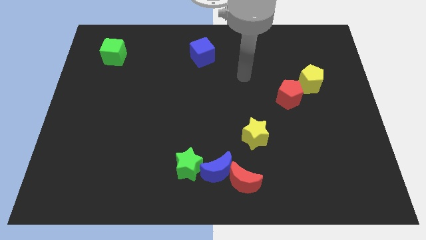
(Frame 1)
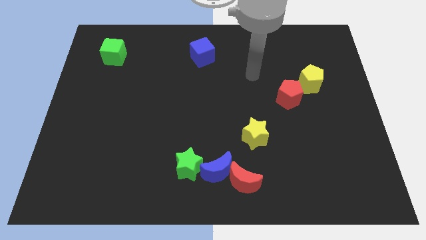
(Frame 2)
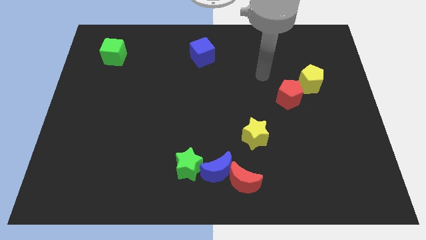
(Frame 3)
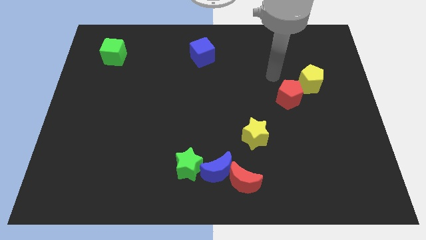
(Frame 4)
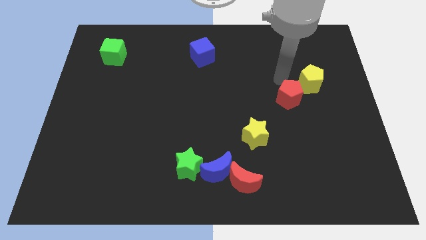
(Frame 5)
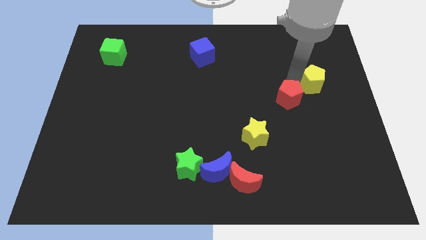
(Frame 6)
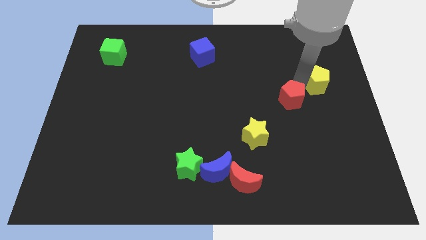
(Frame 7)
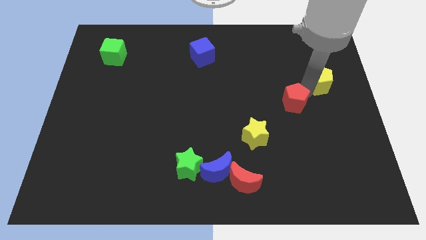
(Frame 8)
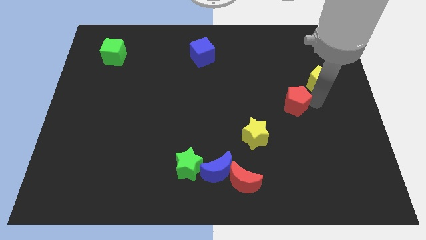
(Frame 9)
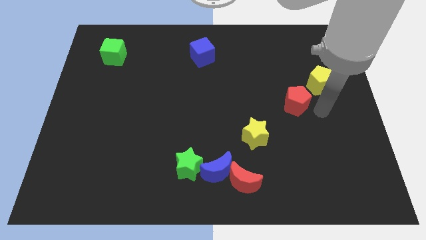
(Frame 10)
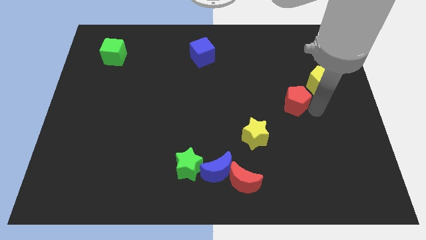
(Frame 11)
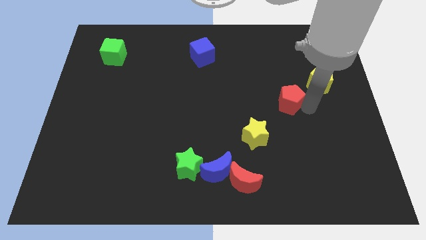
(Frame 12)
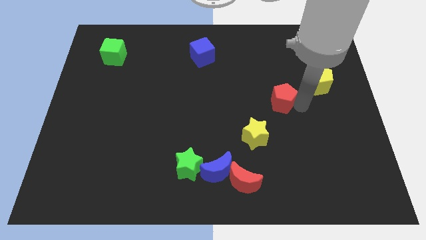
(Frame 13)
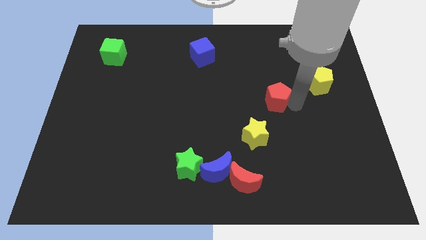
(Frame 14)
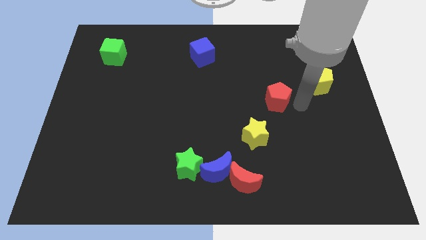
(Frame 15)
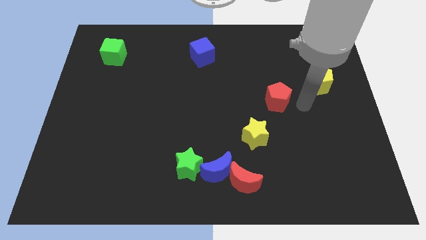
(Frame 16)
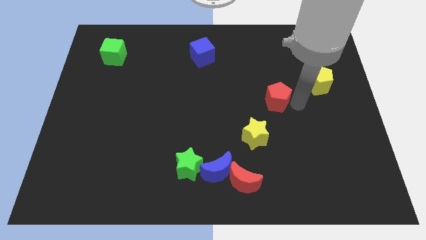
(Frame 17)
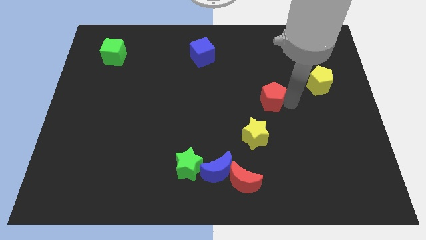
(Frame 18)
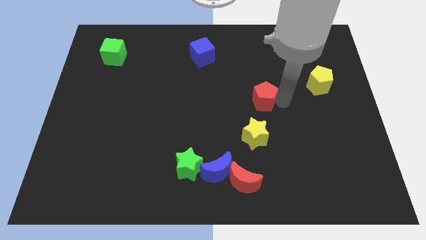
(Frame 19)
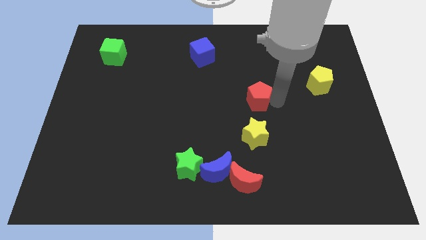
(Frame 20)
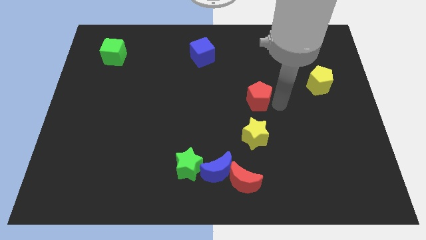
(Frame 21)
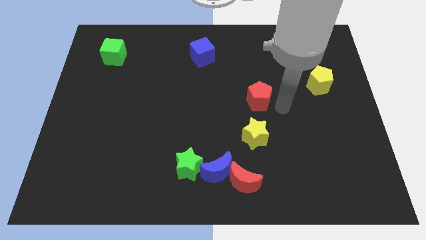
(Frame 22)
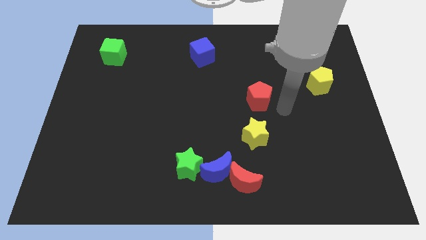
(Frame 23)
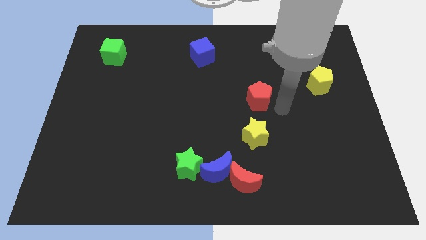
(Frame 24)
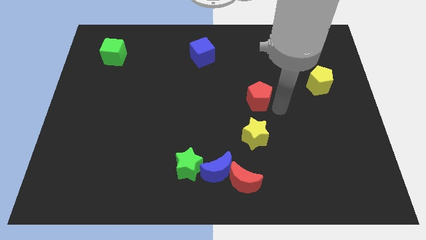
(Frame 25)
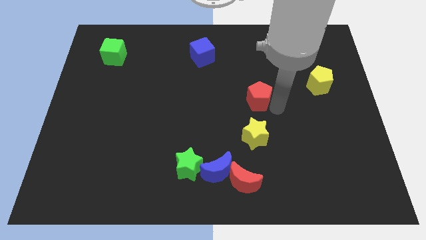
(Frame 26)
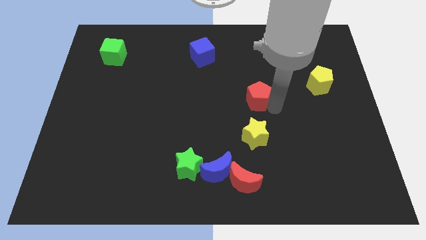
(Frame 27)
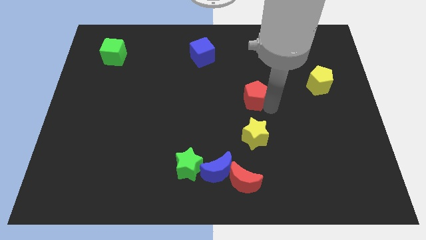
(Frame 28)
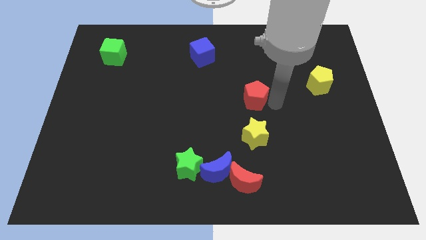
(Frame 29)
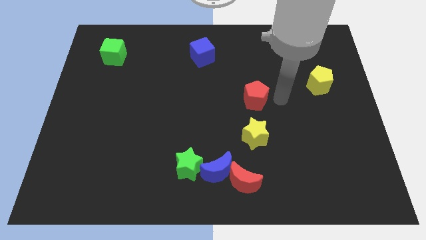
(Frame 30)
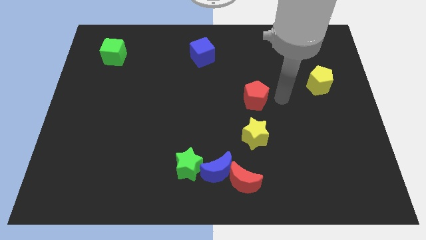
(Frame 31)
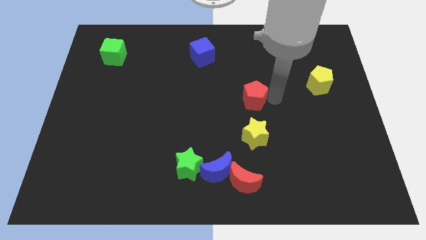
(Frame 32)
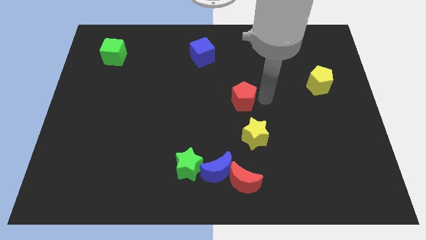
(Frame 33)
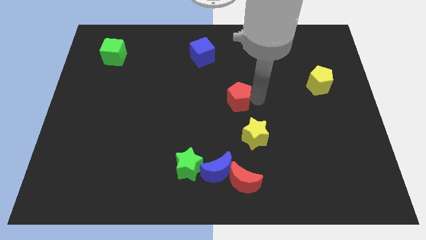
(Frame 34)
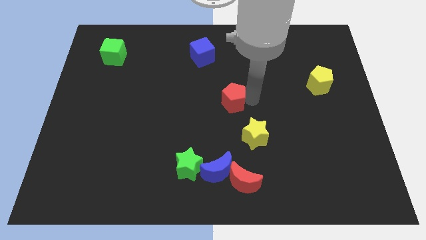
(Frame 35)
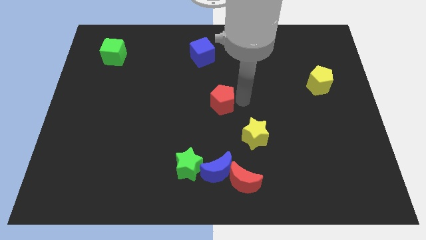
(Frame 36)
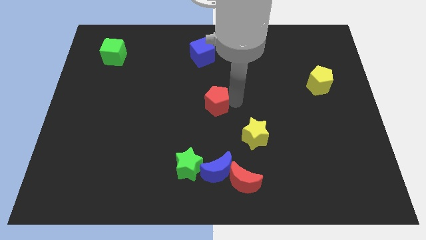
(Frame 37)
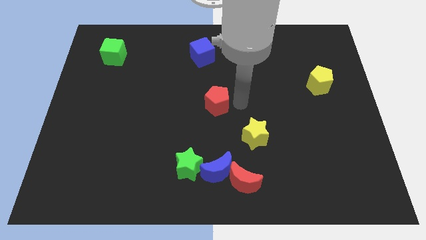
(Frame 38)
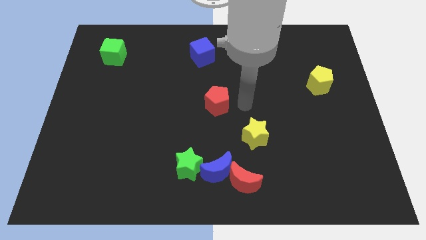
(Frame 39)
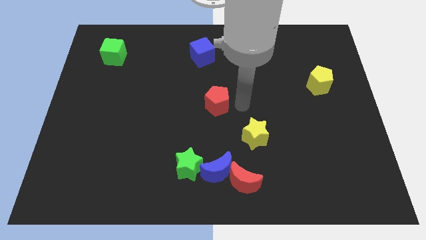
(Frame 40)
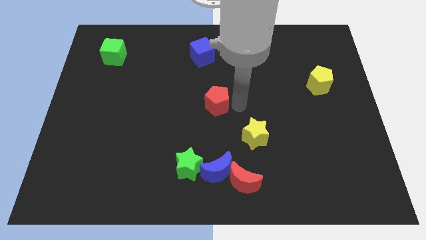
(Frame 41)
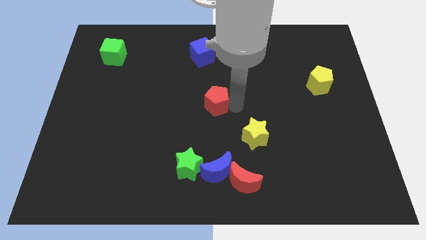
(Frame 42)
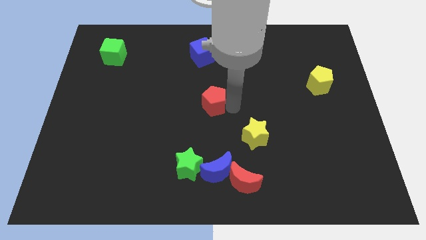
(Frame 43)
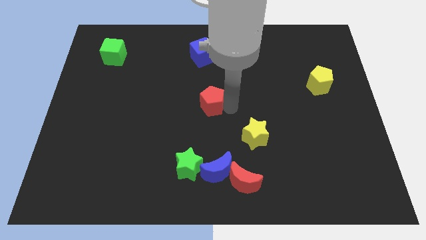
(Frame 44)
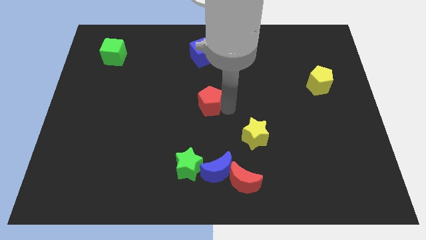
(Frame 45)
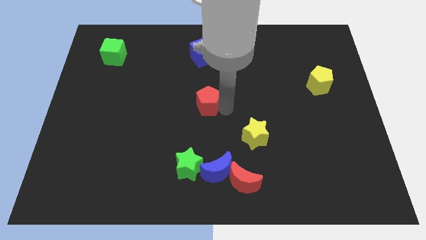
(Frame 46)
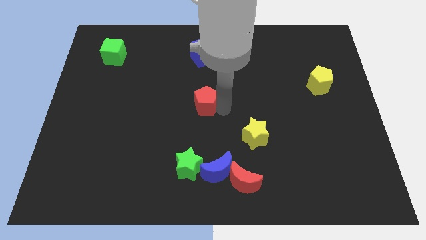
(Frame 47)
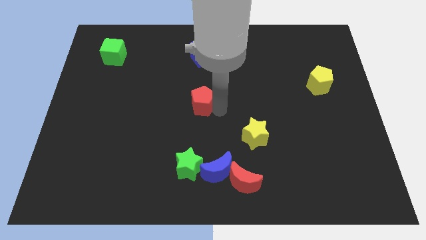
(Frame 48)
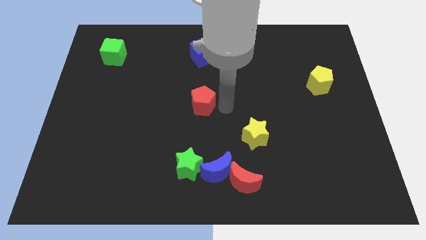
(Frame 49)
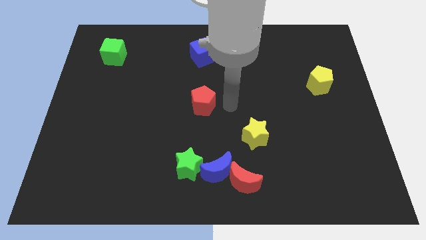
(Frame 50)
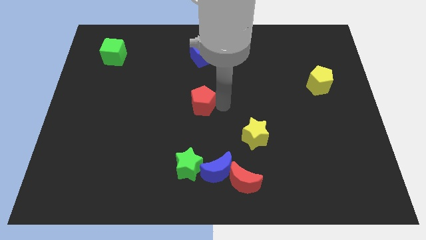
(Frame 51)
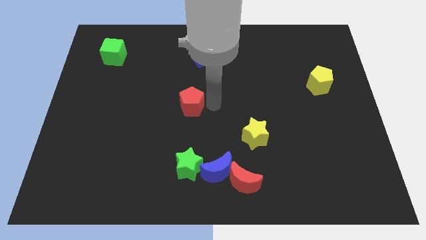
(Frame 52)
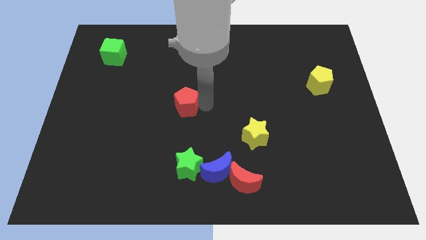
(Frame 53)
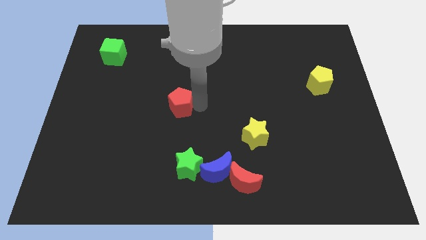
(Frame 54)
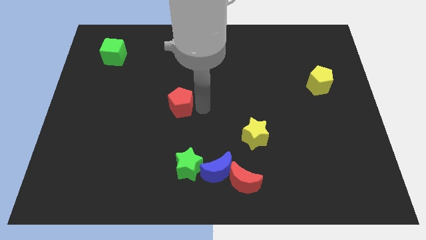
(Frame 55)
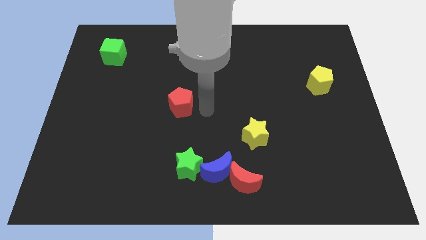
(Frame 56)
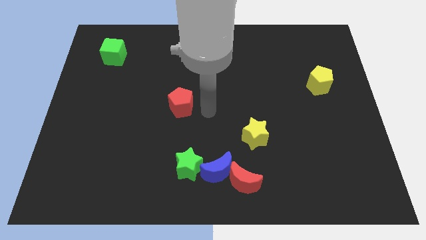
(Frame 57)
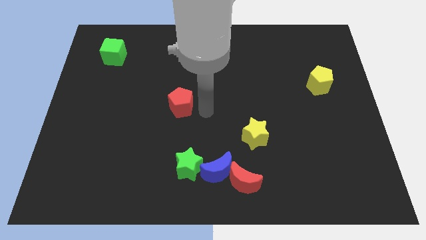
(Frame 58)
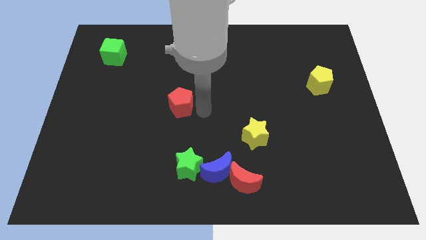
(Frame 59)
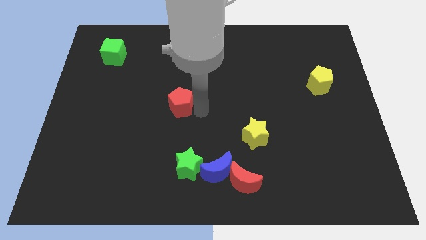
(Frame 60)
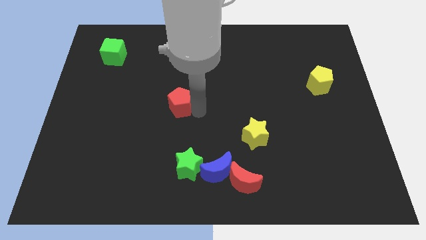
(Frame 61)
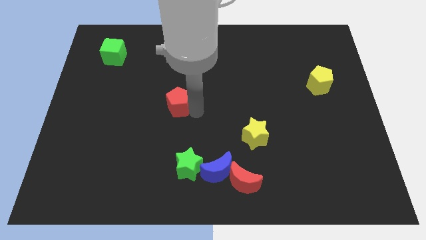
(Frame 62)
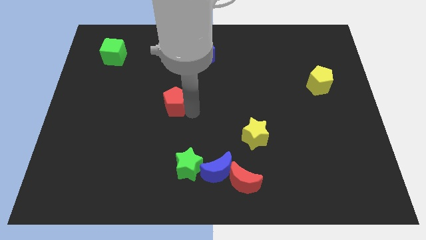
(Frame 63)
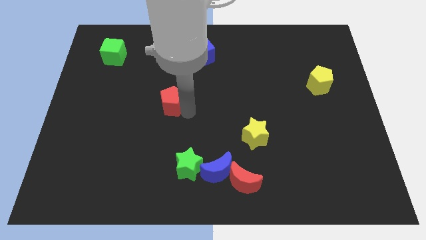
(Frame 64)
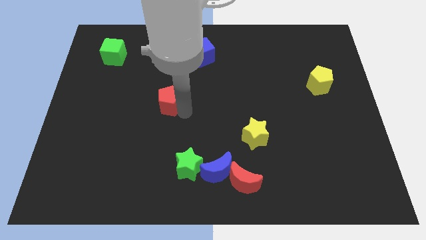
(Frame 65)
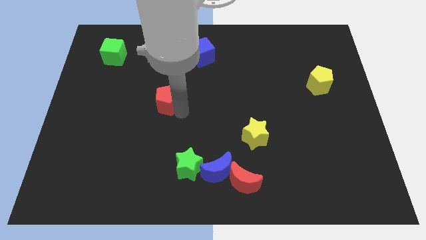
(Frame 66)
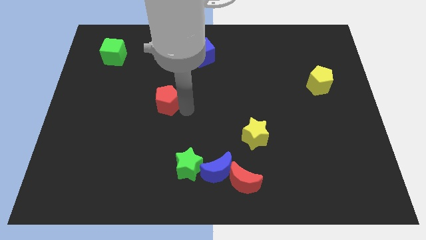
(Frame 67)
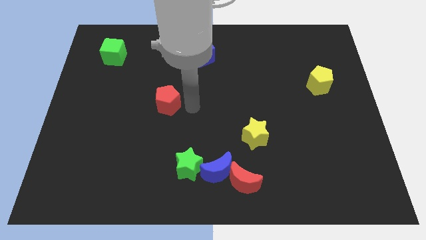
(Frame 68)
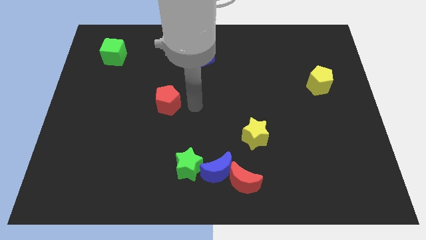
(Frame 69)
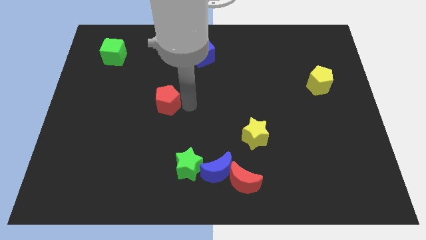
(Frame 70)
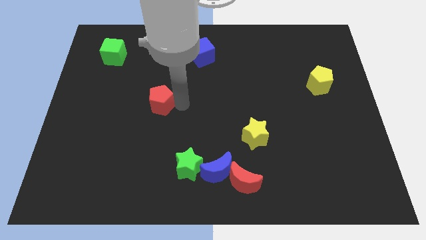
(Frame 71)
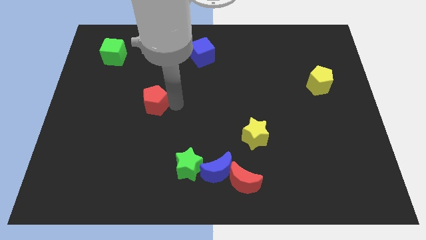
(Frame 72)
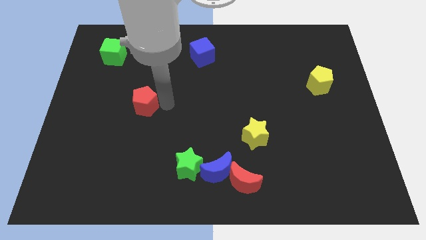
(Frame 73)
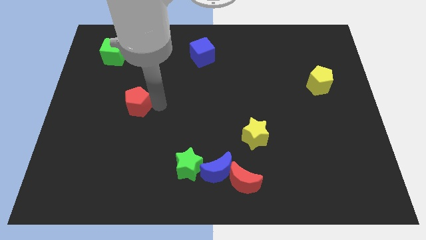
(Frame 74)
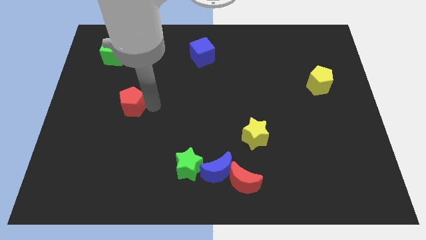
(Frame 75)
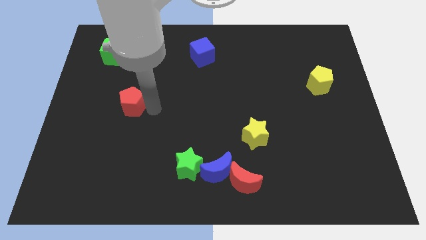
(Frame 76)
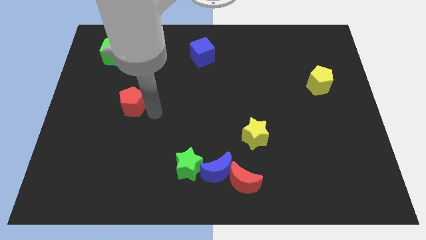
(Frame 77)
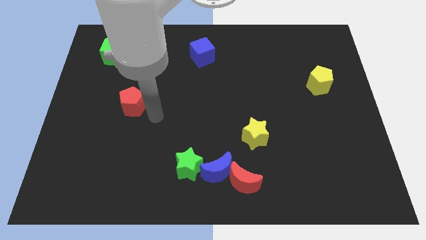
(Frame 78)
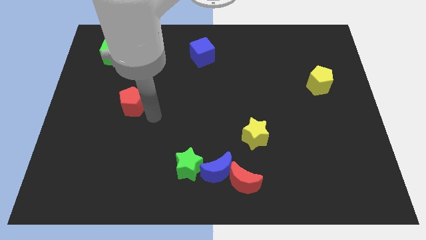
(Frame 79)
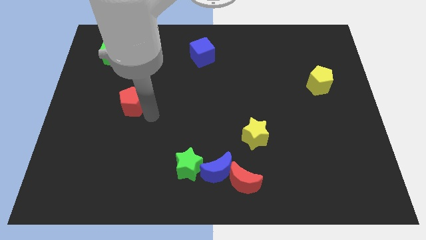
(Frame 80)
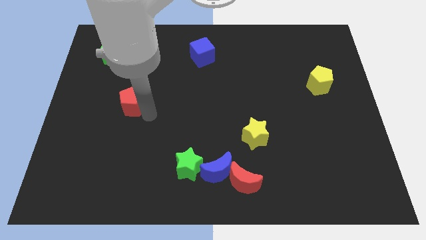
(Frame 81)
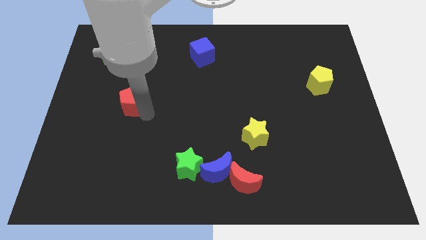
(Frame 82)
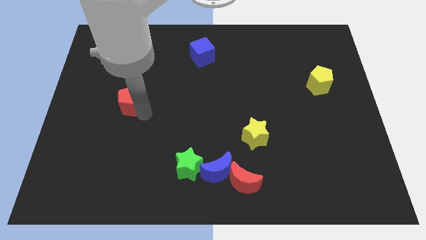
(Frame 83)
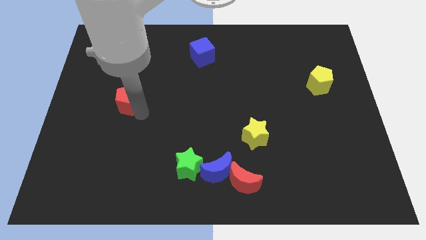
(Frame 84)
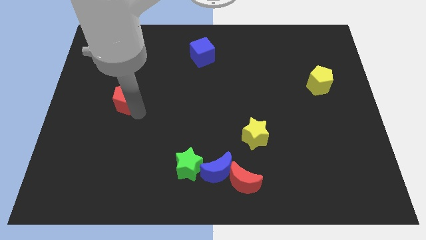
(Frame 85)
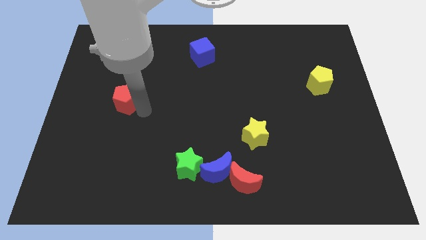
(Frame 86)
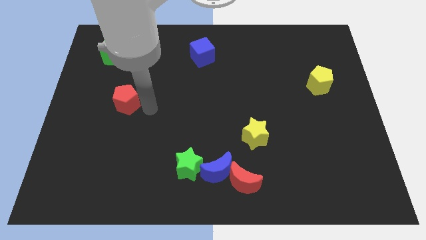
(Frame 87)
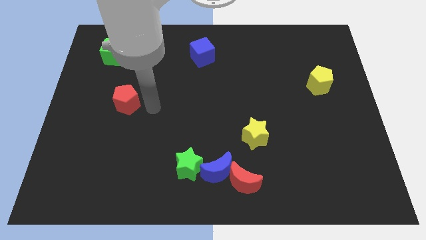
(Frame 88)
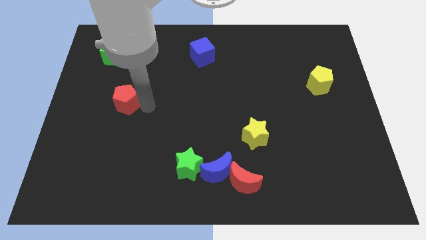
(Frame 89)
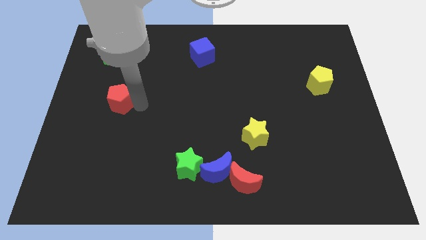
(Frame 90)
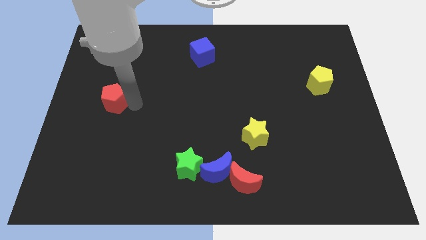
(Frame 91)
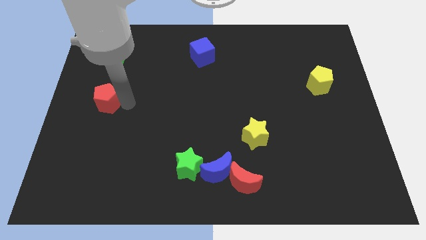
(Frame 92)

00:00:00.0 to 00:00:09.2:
slide the red pentagon to the left side of the board
